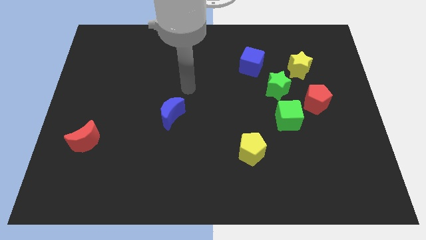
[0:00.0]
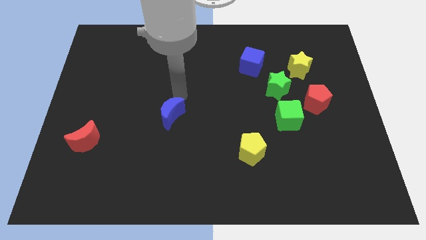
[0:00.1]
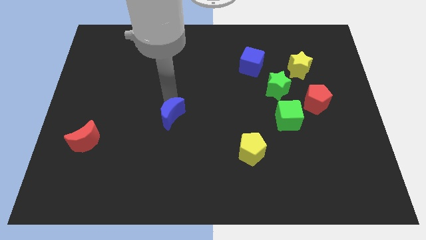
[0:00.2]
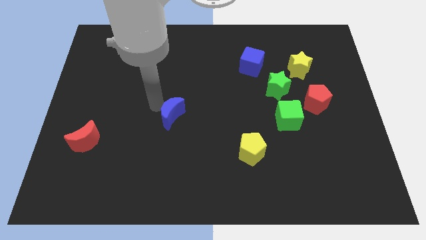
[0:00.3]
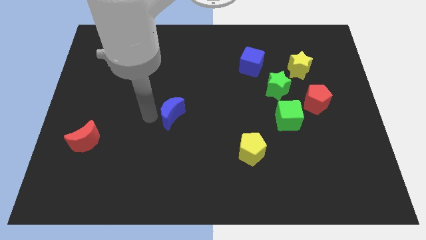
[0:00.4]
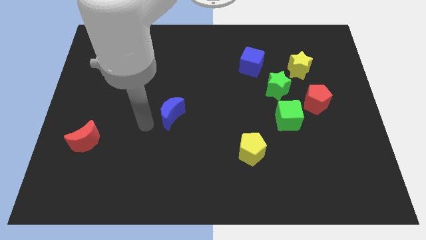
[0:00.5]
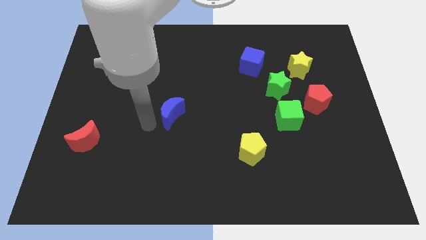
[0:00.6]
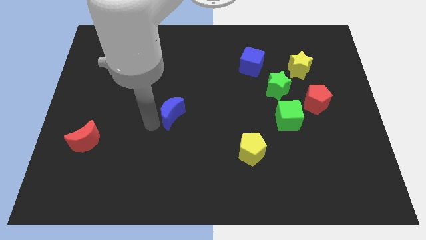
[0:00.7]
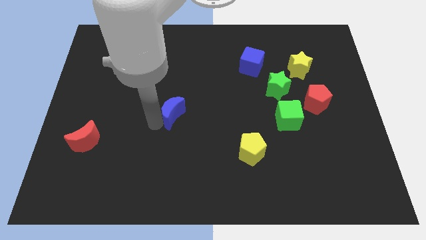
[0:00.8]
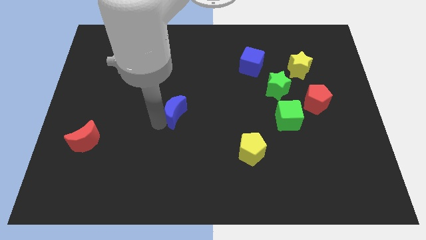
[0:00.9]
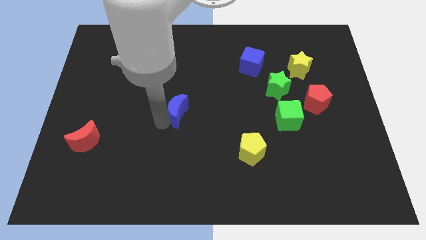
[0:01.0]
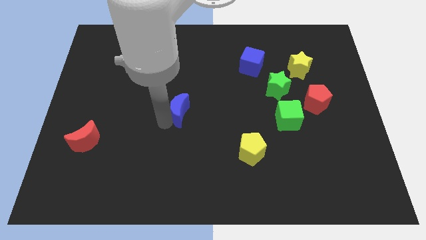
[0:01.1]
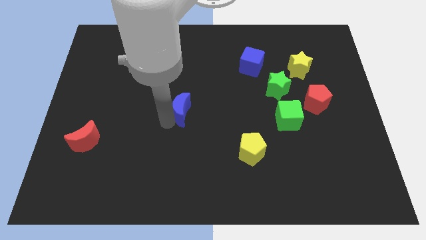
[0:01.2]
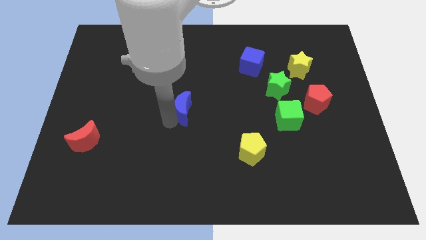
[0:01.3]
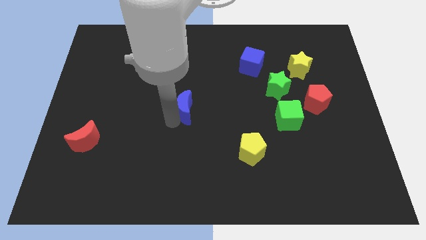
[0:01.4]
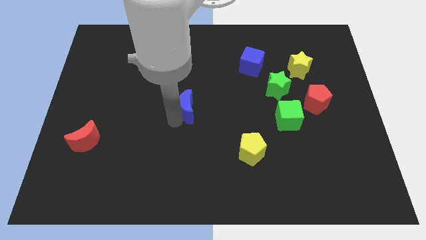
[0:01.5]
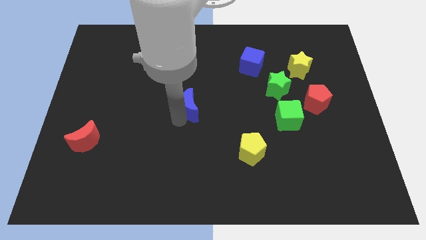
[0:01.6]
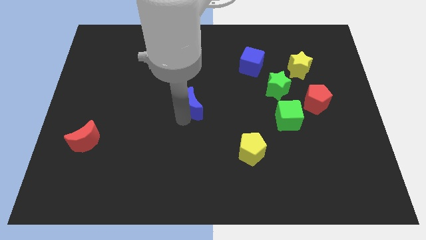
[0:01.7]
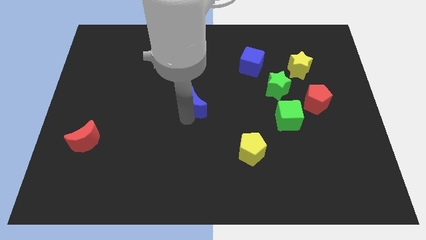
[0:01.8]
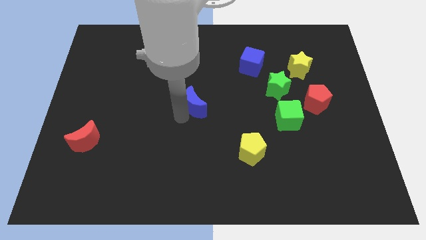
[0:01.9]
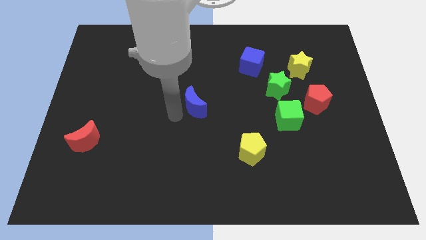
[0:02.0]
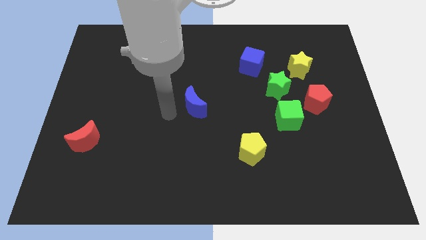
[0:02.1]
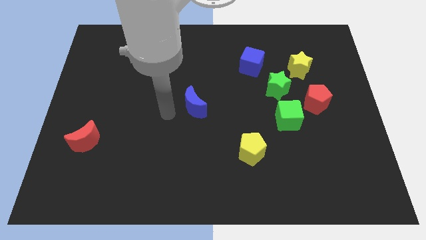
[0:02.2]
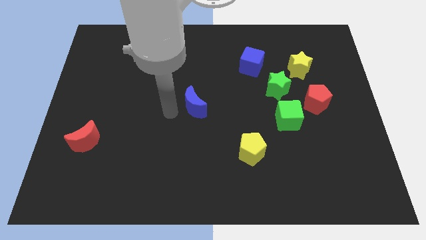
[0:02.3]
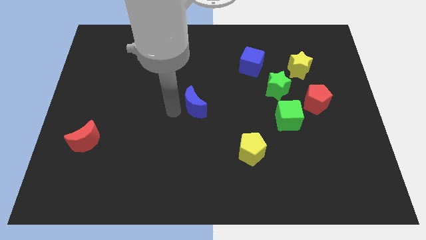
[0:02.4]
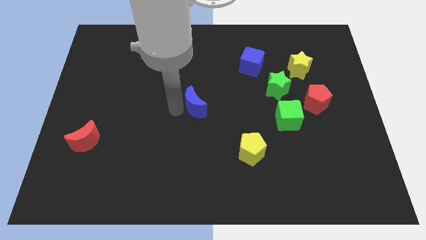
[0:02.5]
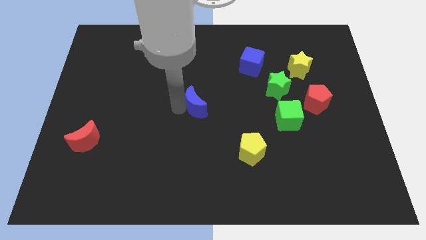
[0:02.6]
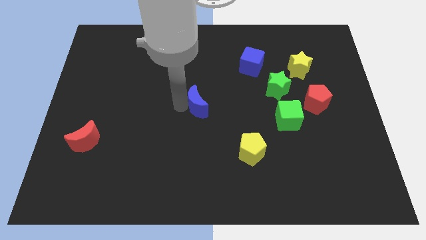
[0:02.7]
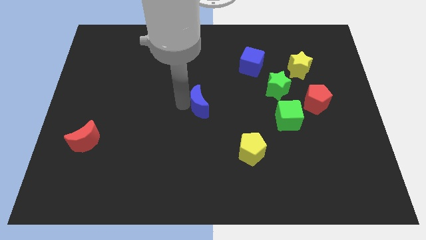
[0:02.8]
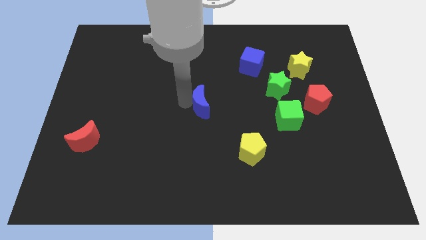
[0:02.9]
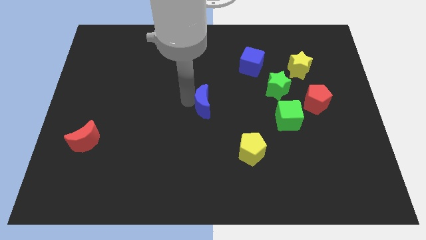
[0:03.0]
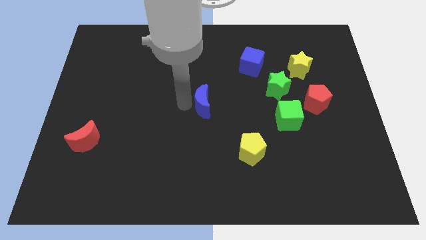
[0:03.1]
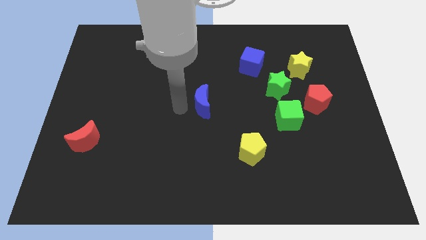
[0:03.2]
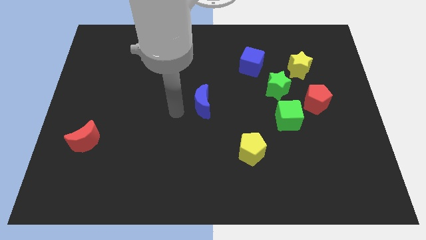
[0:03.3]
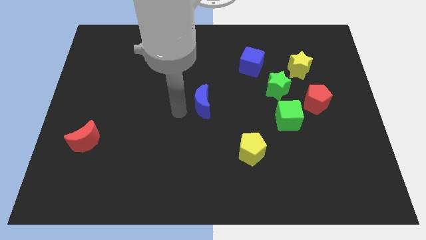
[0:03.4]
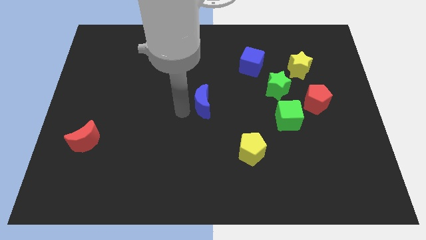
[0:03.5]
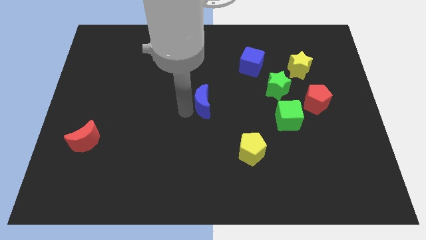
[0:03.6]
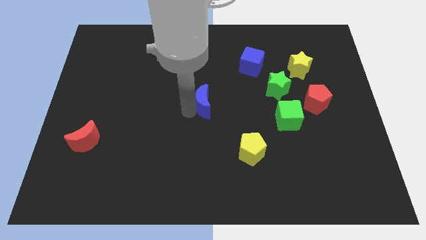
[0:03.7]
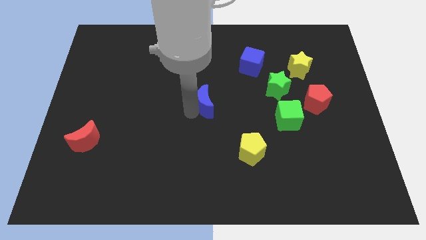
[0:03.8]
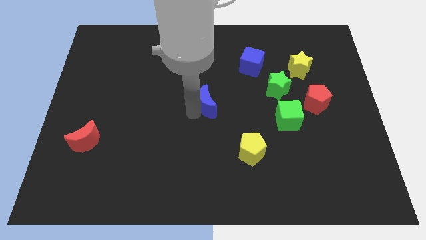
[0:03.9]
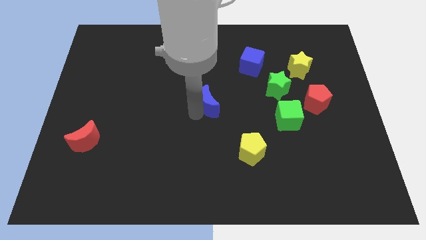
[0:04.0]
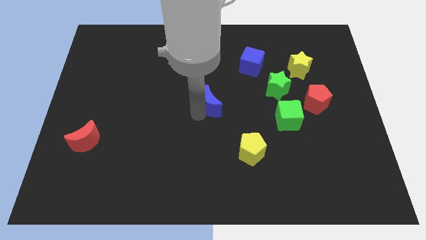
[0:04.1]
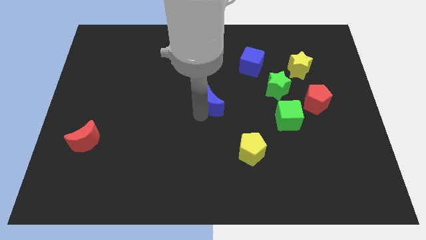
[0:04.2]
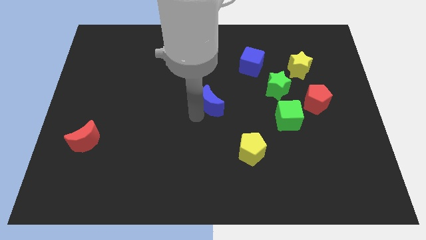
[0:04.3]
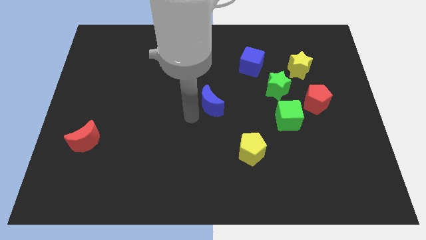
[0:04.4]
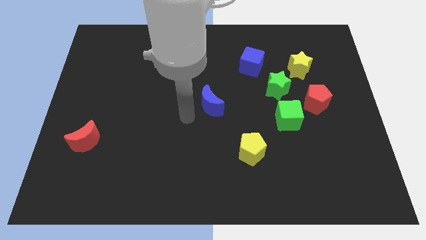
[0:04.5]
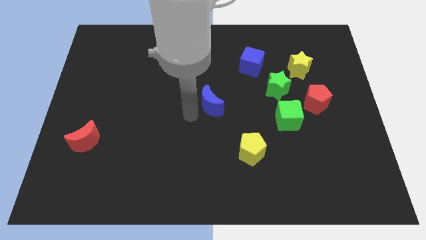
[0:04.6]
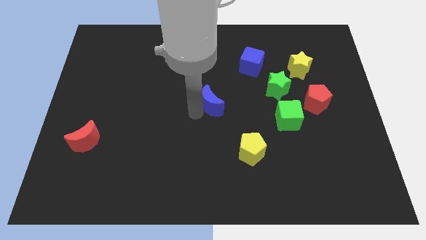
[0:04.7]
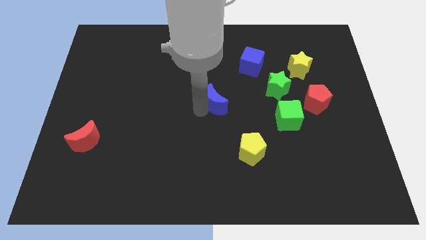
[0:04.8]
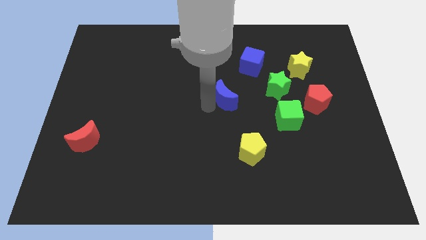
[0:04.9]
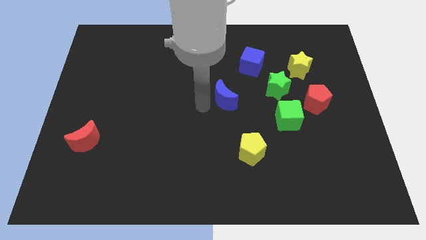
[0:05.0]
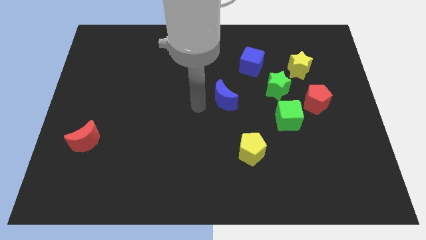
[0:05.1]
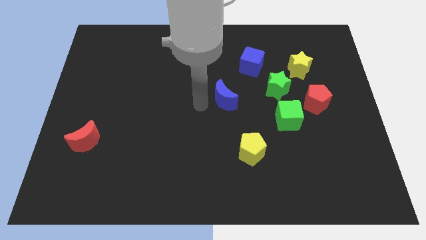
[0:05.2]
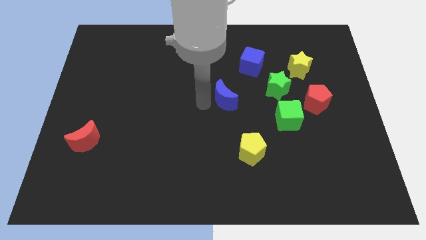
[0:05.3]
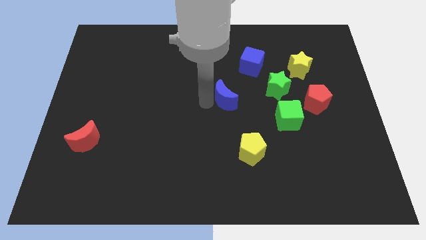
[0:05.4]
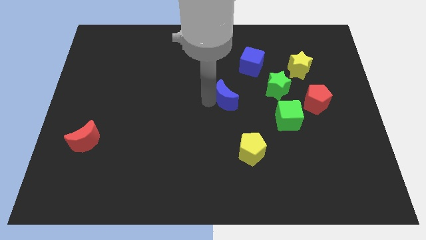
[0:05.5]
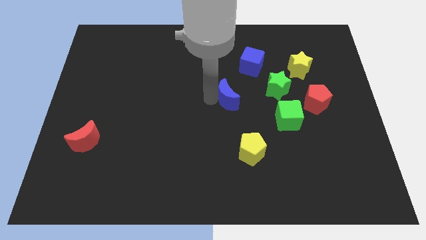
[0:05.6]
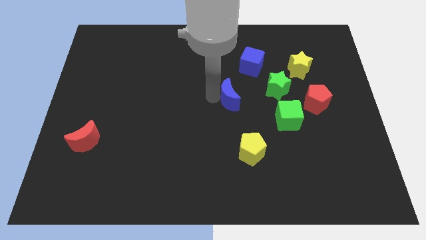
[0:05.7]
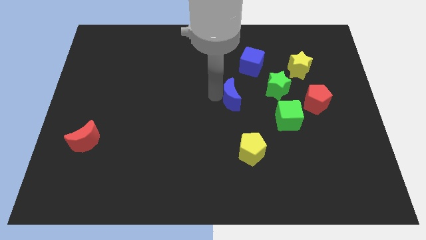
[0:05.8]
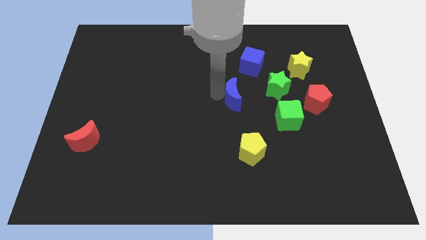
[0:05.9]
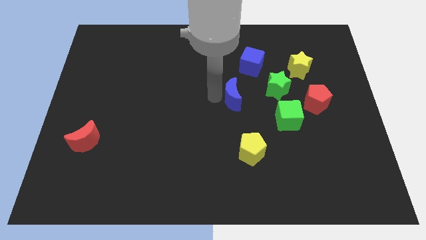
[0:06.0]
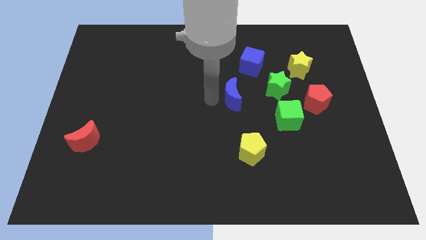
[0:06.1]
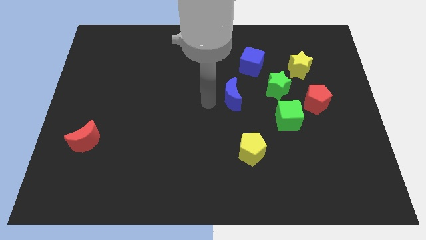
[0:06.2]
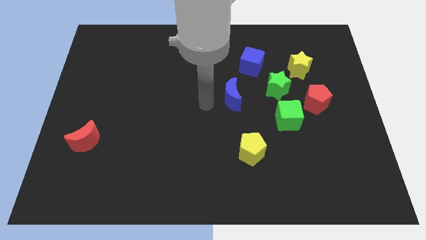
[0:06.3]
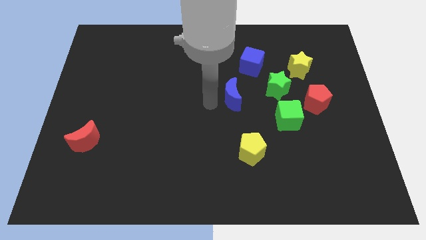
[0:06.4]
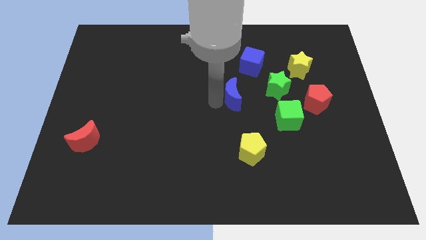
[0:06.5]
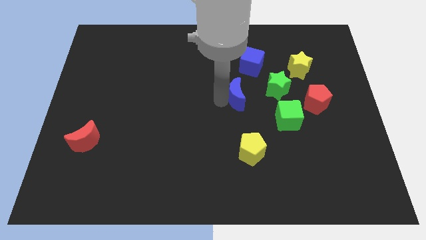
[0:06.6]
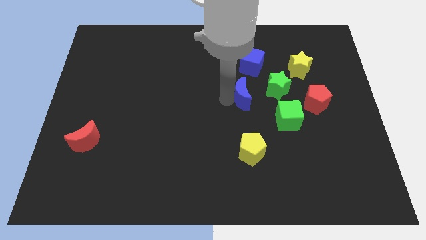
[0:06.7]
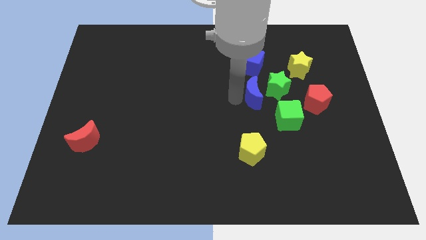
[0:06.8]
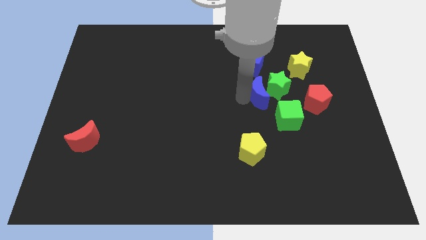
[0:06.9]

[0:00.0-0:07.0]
push the blue moon close to the green star
